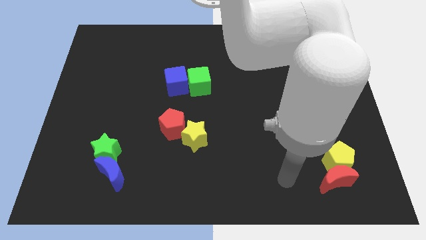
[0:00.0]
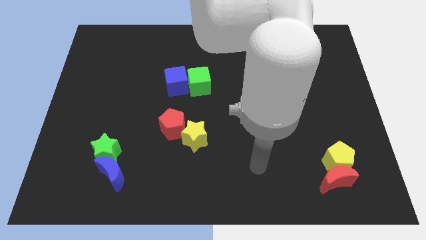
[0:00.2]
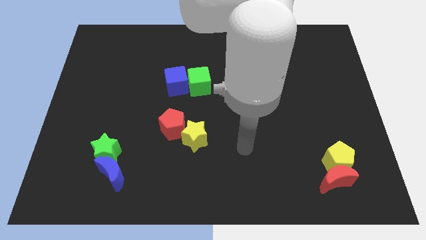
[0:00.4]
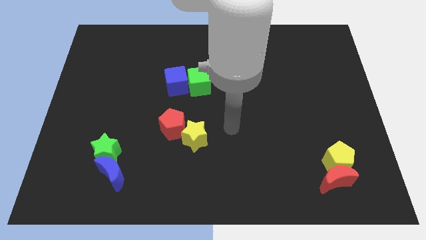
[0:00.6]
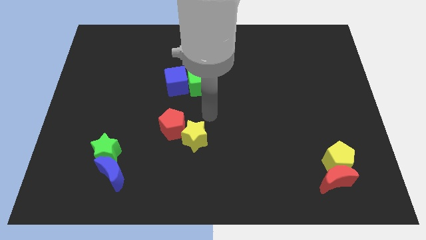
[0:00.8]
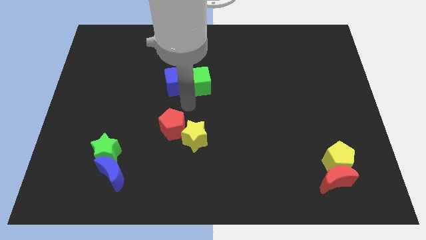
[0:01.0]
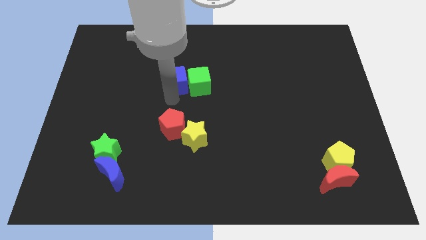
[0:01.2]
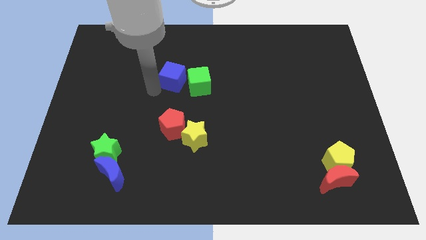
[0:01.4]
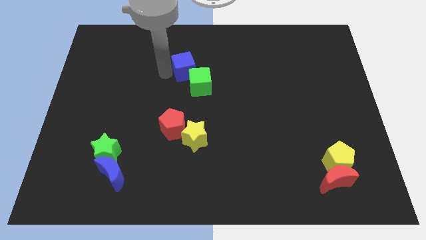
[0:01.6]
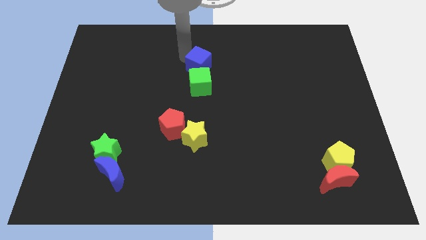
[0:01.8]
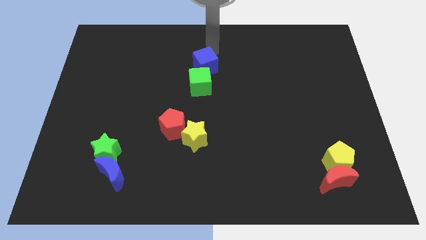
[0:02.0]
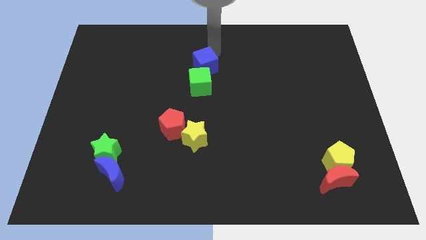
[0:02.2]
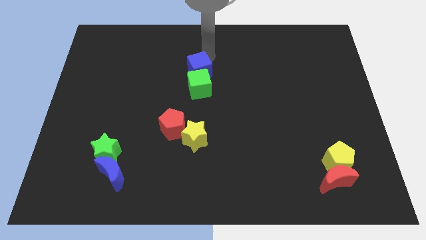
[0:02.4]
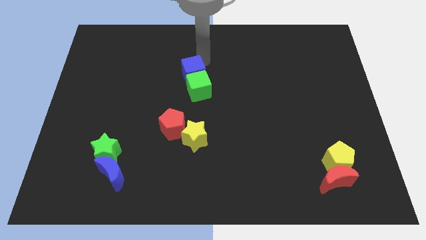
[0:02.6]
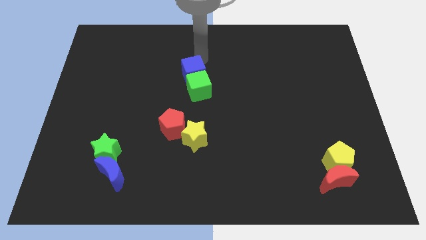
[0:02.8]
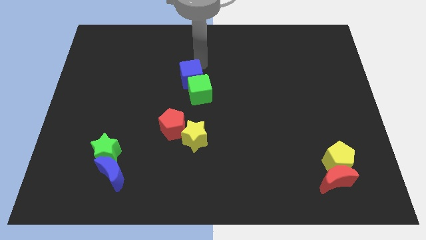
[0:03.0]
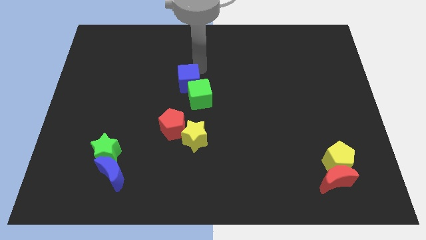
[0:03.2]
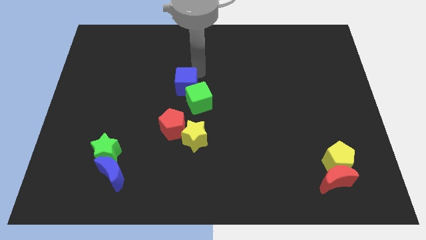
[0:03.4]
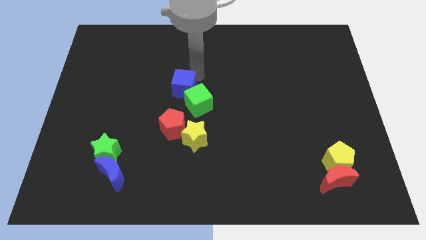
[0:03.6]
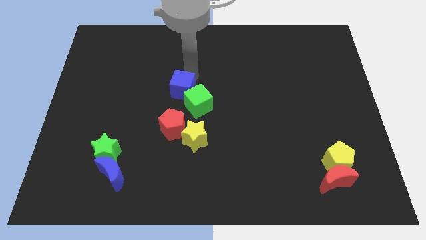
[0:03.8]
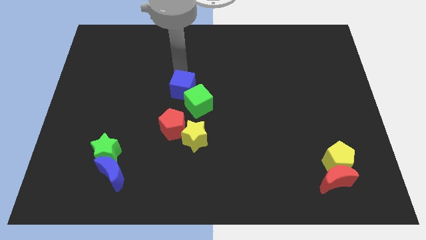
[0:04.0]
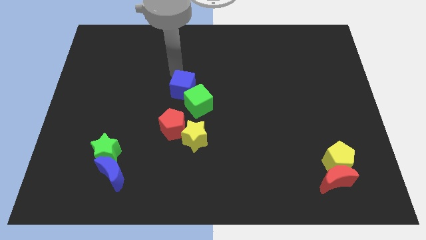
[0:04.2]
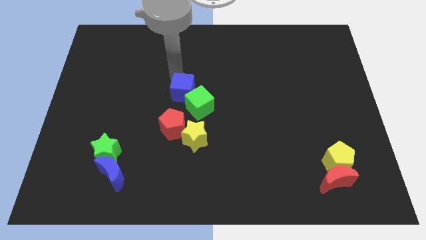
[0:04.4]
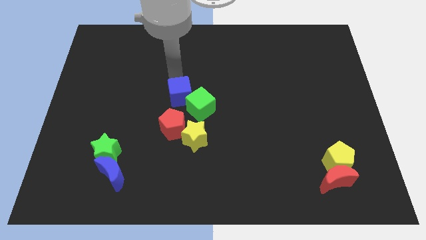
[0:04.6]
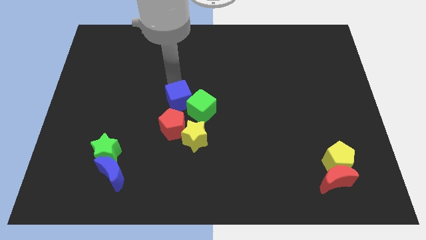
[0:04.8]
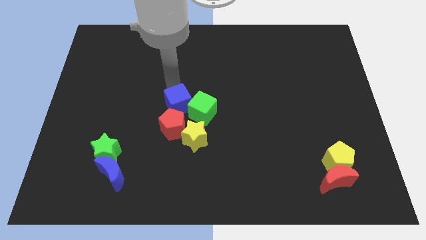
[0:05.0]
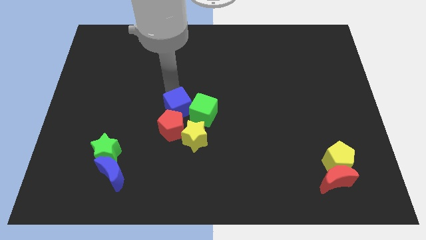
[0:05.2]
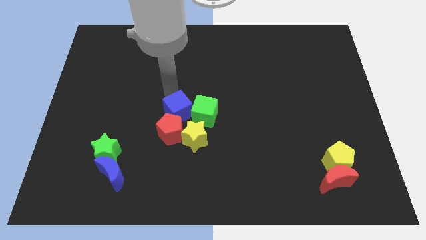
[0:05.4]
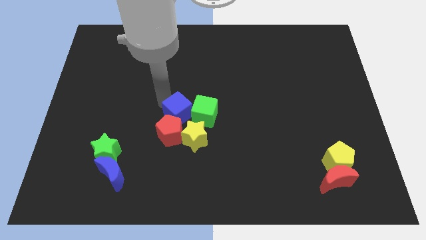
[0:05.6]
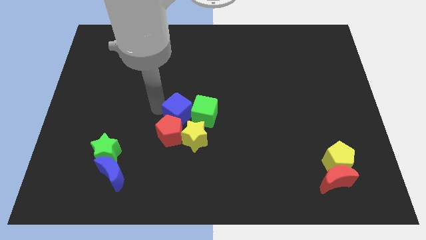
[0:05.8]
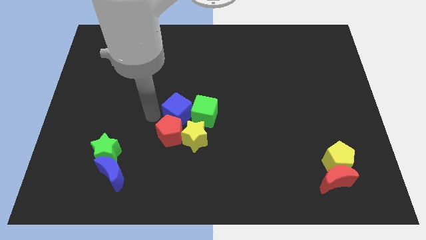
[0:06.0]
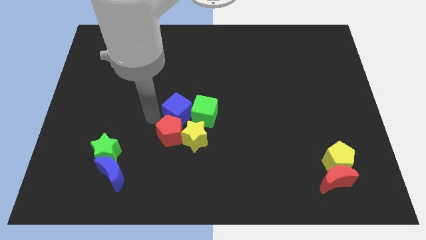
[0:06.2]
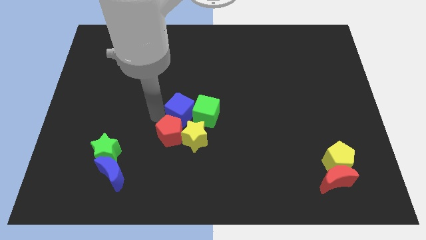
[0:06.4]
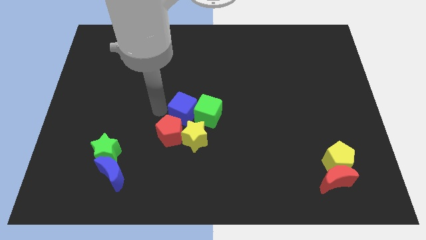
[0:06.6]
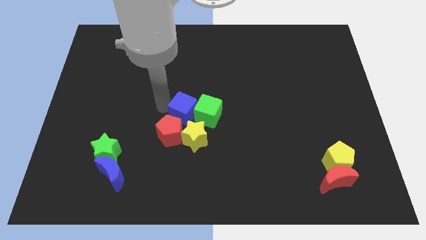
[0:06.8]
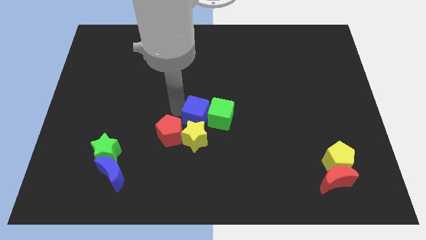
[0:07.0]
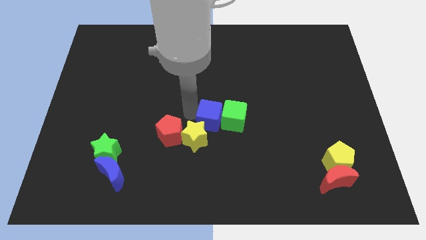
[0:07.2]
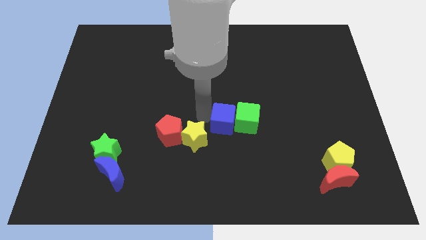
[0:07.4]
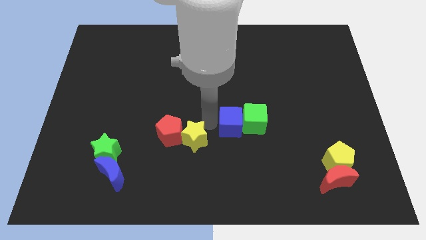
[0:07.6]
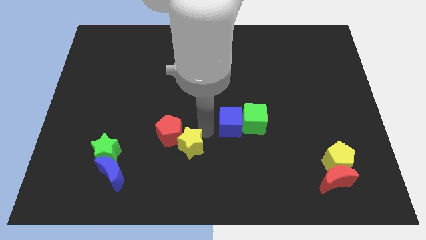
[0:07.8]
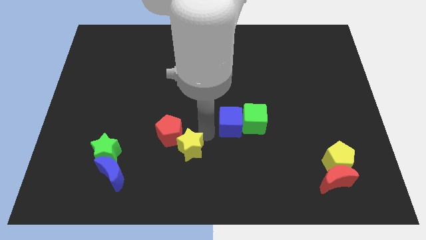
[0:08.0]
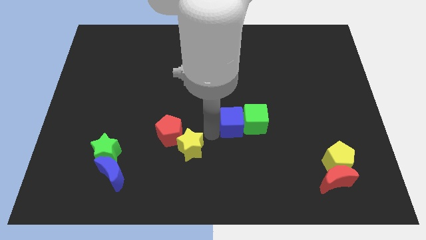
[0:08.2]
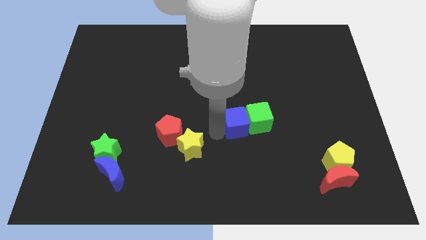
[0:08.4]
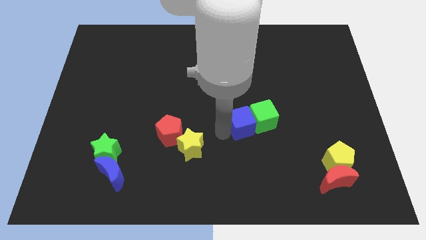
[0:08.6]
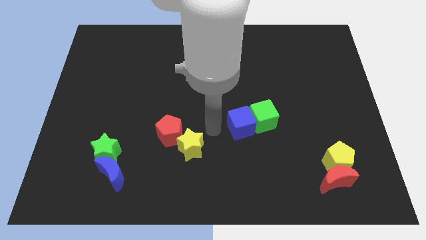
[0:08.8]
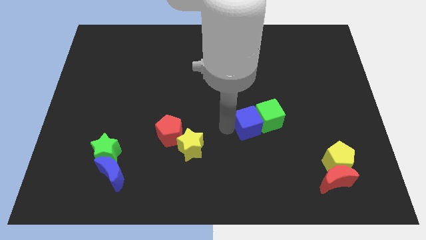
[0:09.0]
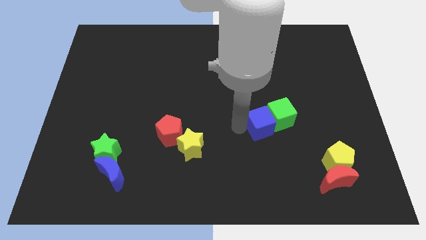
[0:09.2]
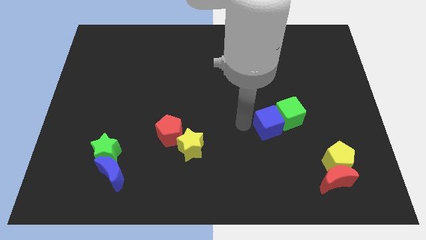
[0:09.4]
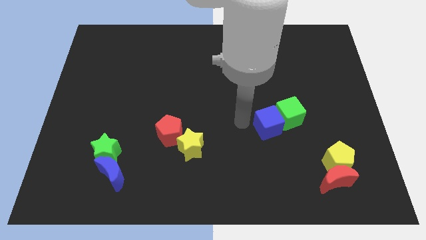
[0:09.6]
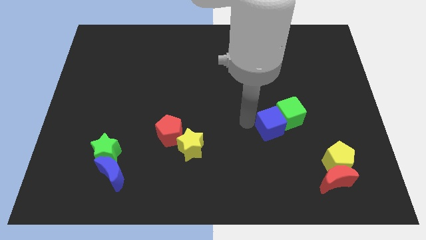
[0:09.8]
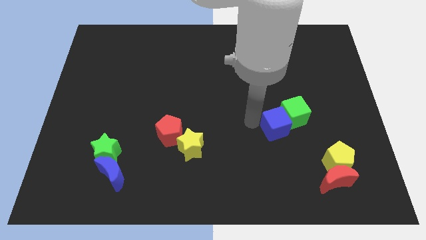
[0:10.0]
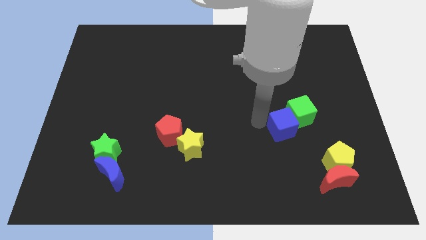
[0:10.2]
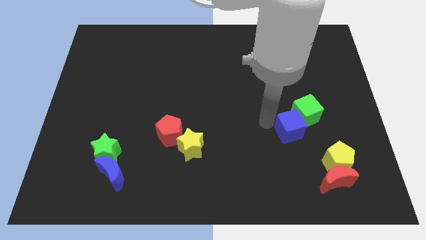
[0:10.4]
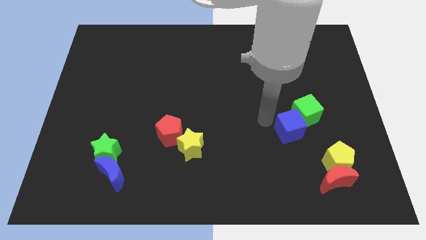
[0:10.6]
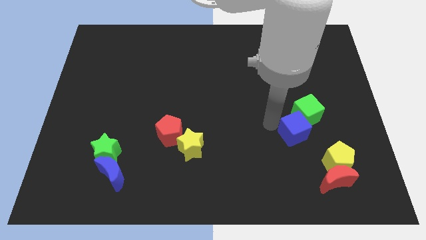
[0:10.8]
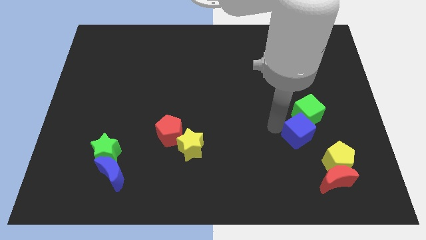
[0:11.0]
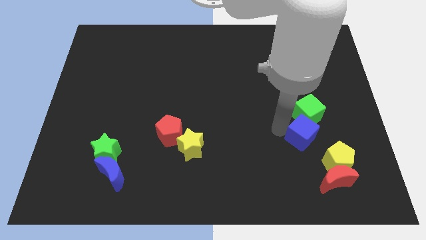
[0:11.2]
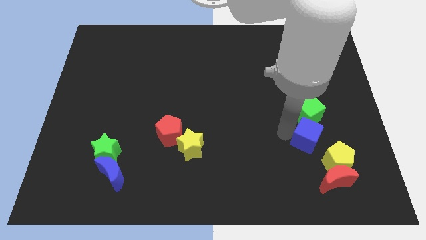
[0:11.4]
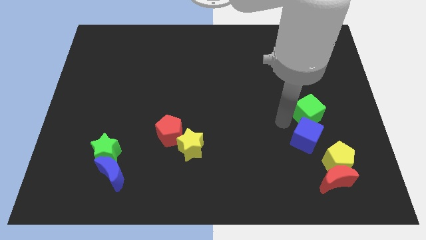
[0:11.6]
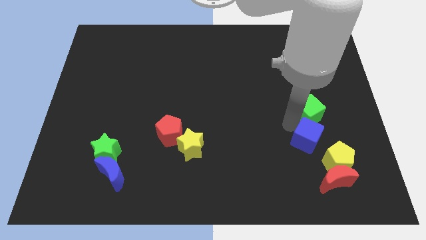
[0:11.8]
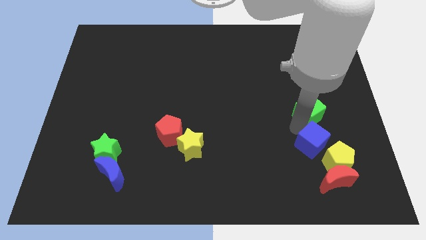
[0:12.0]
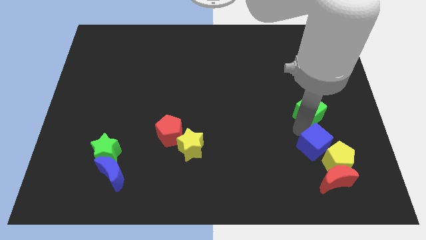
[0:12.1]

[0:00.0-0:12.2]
slide the blue cube close to the yellow pentagon

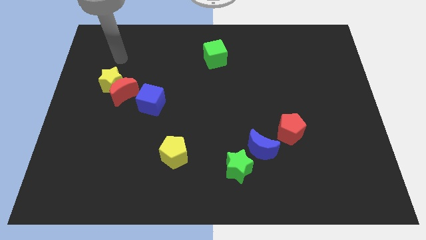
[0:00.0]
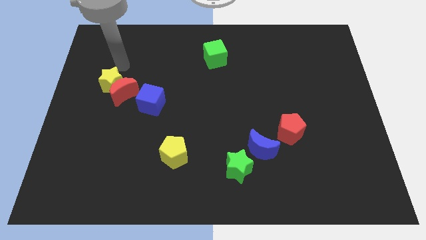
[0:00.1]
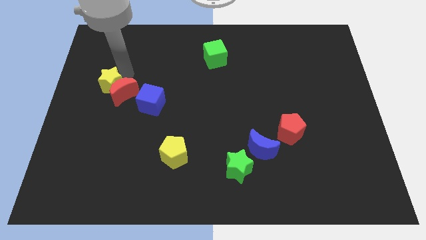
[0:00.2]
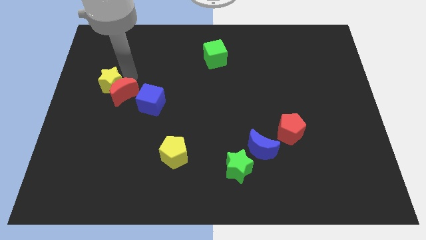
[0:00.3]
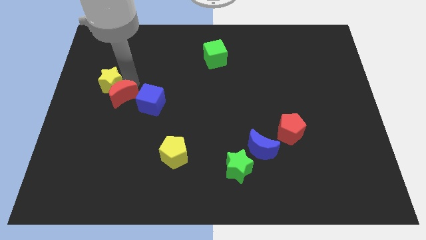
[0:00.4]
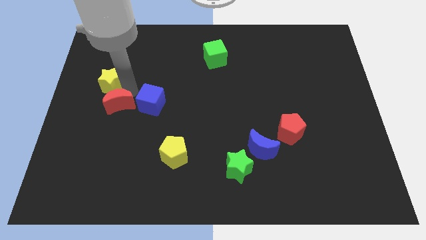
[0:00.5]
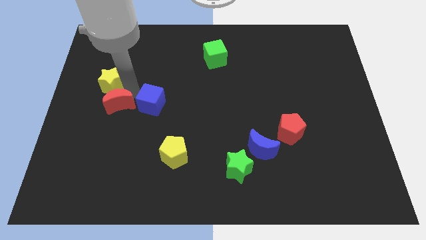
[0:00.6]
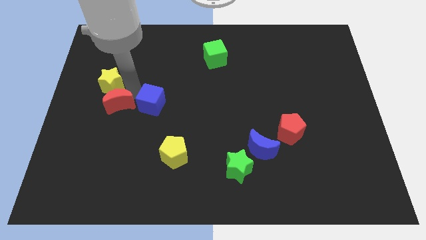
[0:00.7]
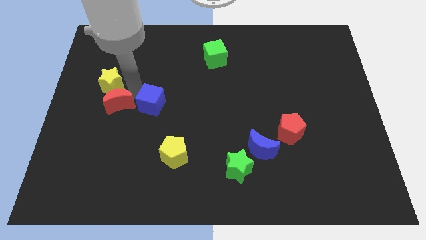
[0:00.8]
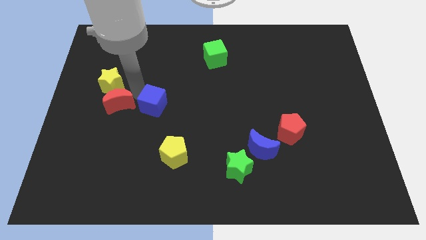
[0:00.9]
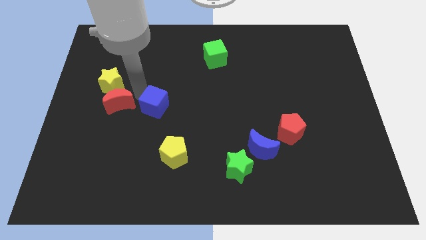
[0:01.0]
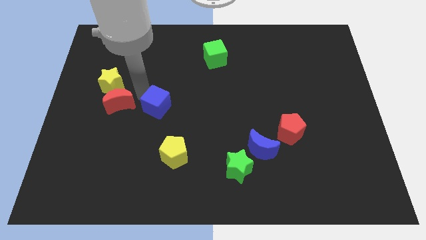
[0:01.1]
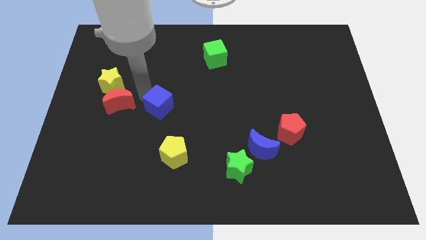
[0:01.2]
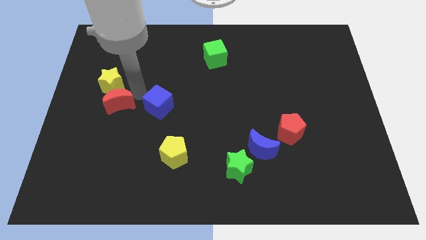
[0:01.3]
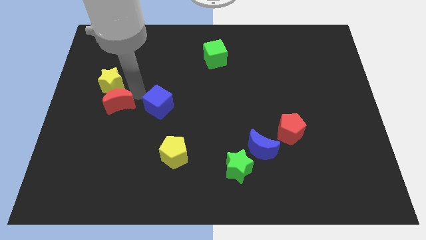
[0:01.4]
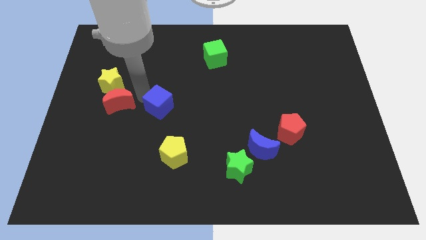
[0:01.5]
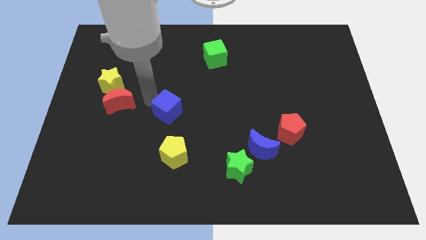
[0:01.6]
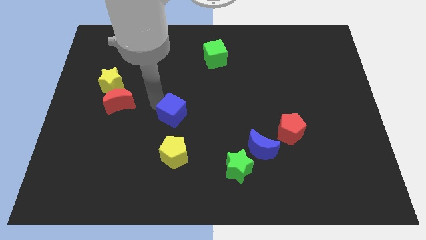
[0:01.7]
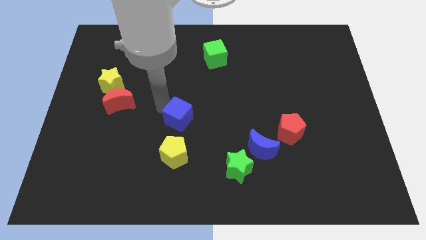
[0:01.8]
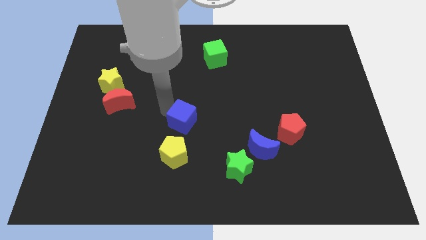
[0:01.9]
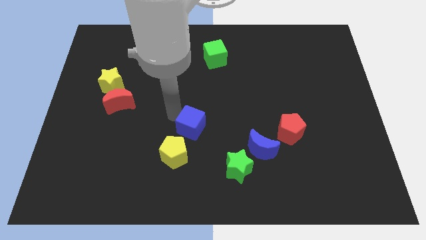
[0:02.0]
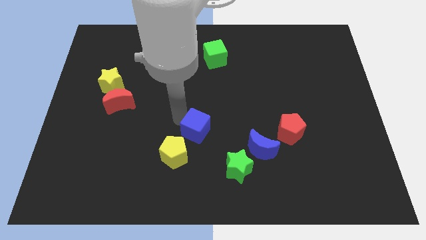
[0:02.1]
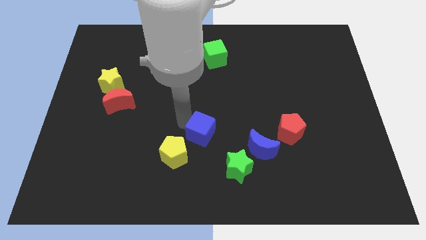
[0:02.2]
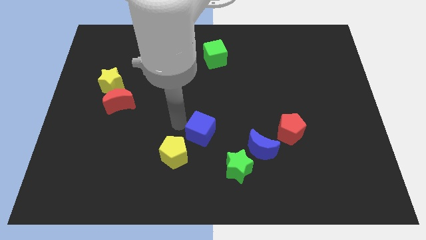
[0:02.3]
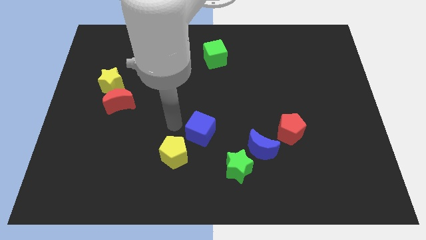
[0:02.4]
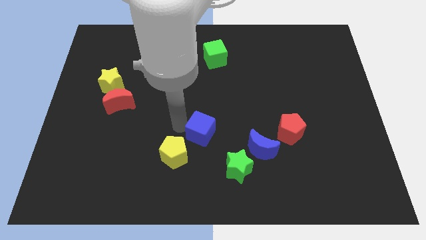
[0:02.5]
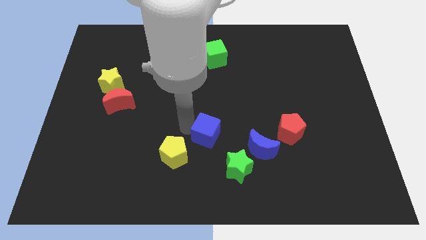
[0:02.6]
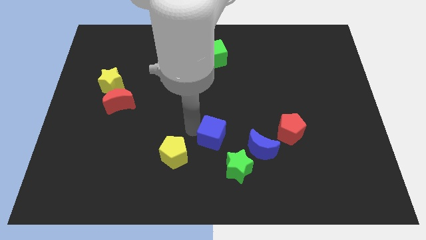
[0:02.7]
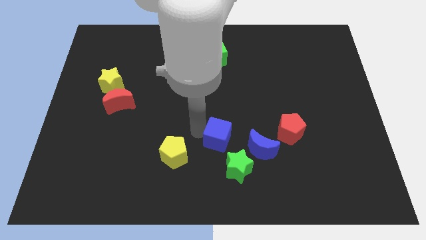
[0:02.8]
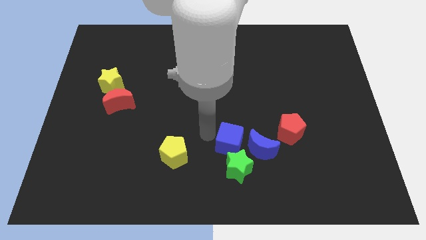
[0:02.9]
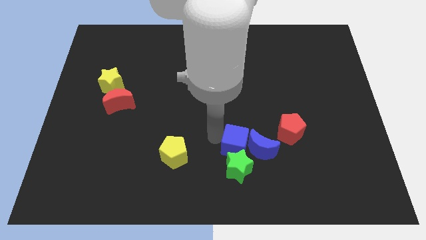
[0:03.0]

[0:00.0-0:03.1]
move the blue cube next to the blue moon
